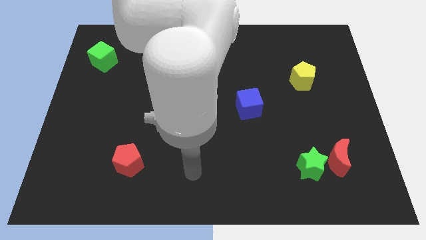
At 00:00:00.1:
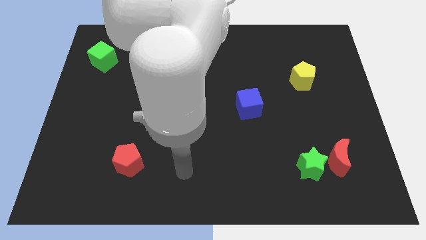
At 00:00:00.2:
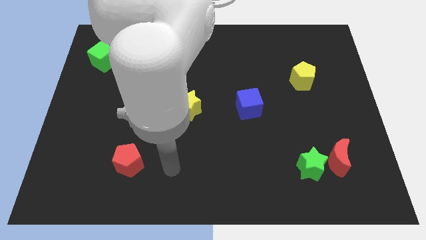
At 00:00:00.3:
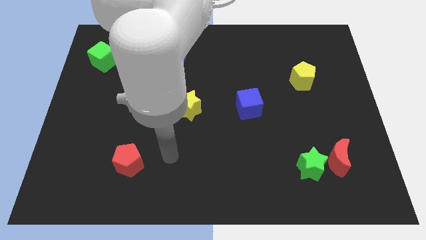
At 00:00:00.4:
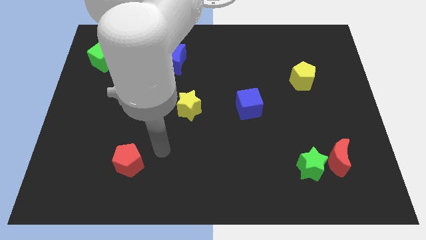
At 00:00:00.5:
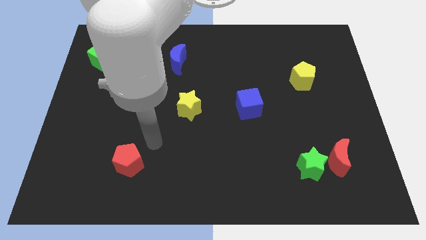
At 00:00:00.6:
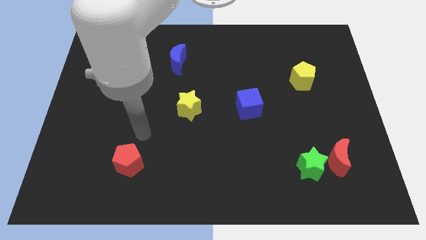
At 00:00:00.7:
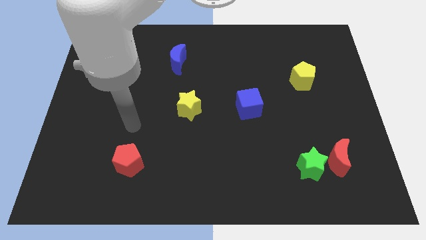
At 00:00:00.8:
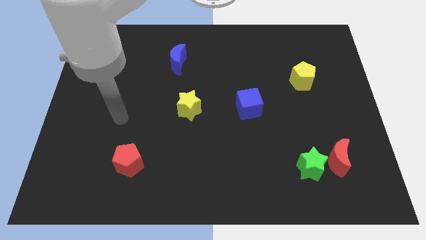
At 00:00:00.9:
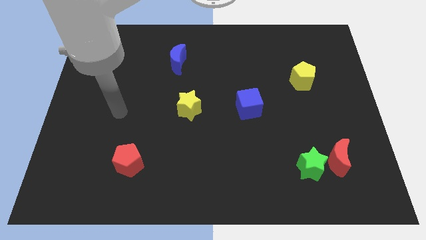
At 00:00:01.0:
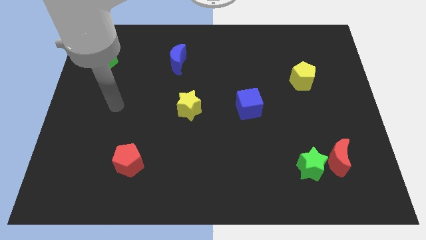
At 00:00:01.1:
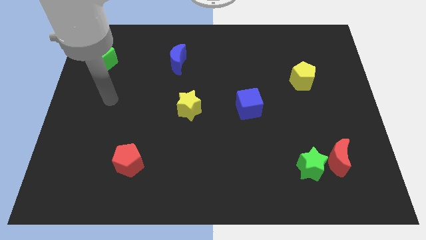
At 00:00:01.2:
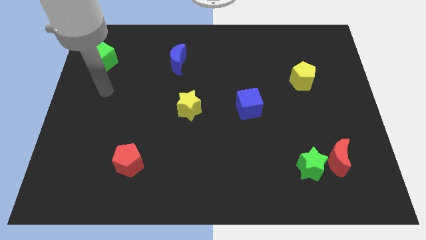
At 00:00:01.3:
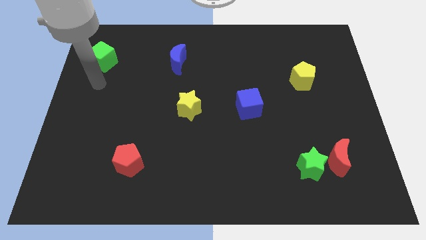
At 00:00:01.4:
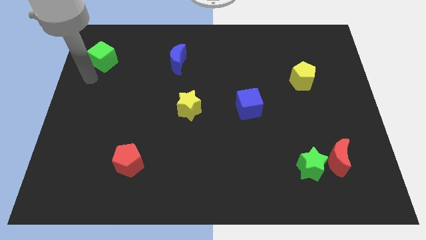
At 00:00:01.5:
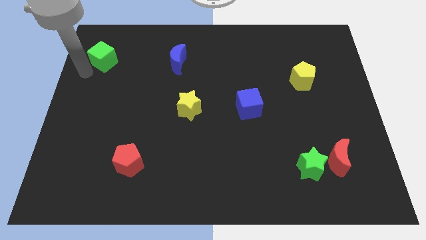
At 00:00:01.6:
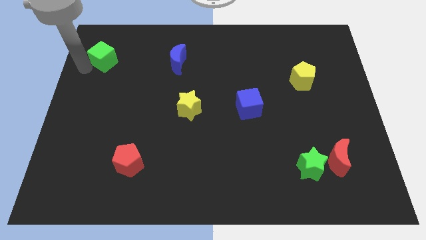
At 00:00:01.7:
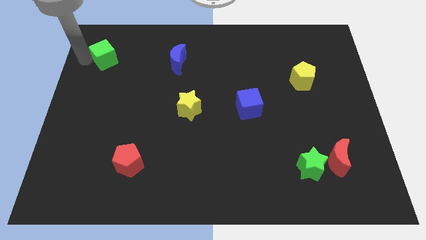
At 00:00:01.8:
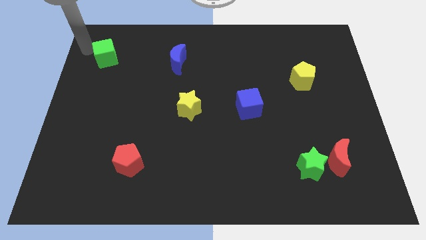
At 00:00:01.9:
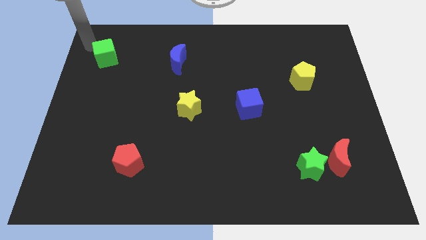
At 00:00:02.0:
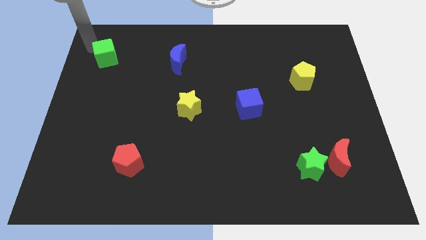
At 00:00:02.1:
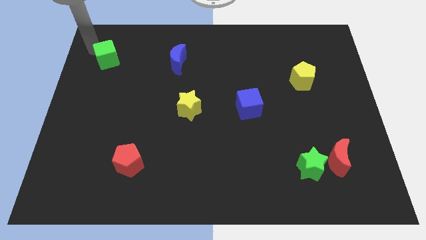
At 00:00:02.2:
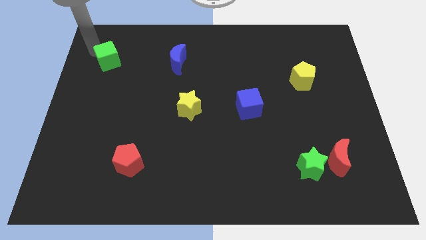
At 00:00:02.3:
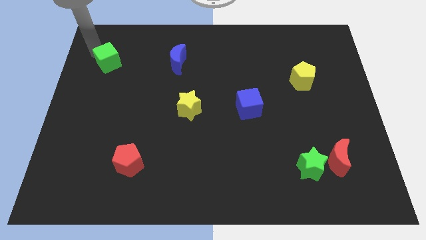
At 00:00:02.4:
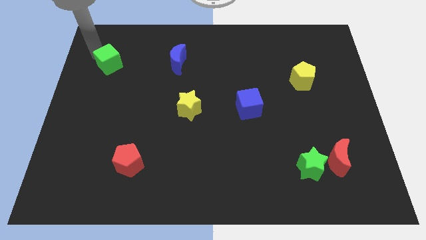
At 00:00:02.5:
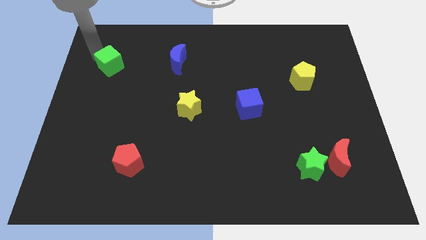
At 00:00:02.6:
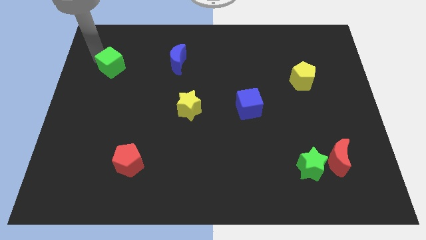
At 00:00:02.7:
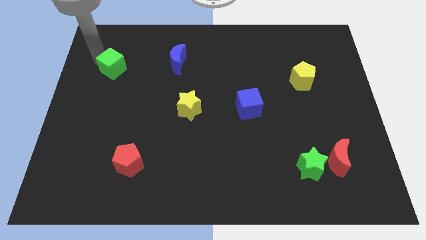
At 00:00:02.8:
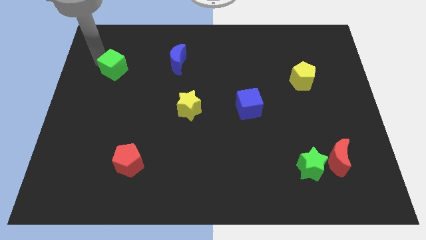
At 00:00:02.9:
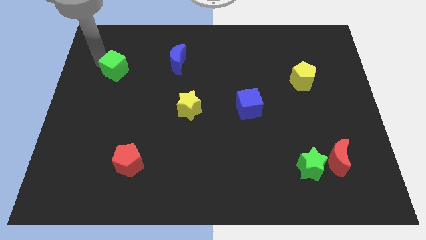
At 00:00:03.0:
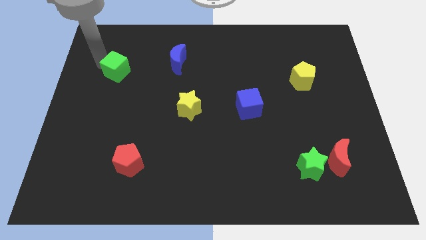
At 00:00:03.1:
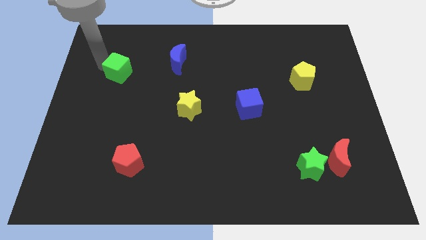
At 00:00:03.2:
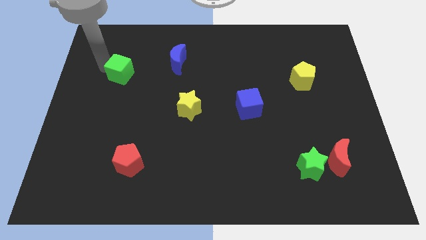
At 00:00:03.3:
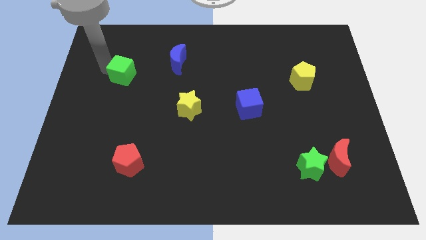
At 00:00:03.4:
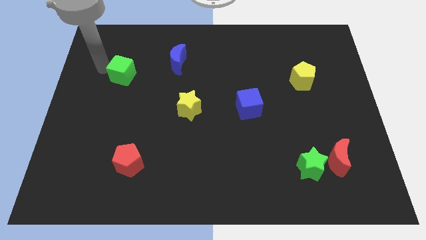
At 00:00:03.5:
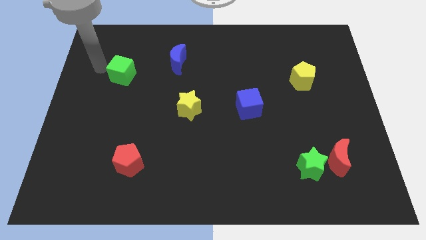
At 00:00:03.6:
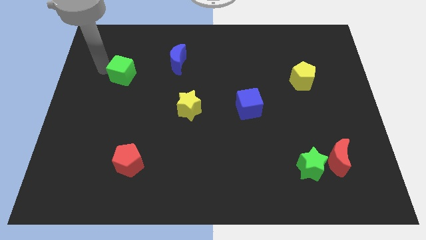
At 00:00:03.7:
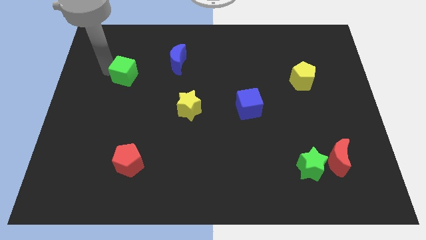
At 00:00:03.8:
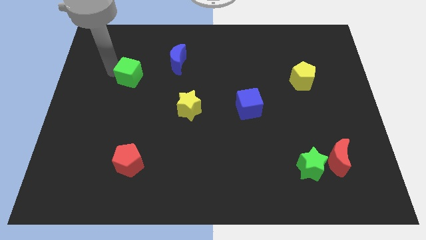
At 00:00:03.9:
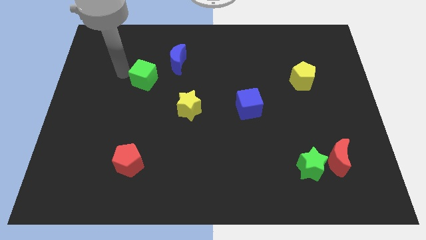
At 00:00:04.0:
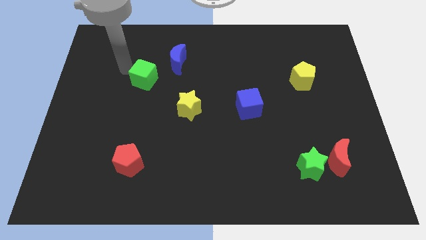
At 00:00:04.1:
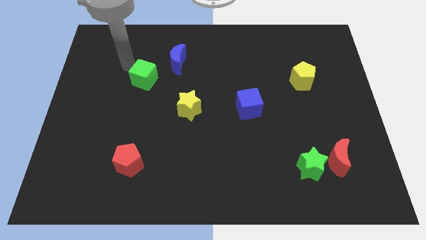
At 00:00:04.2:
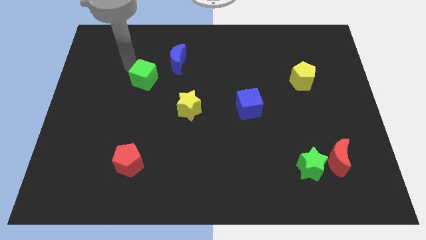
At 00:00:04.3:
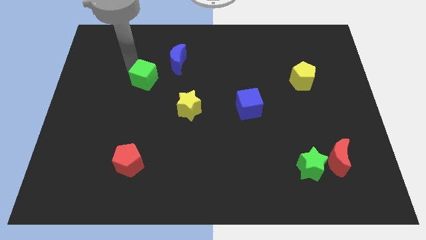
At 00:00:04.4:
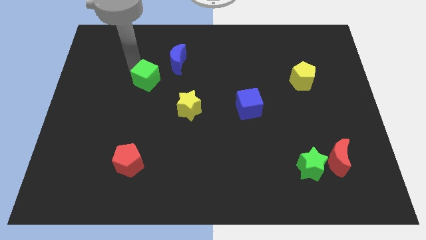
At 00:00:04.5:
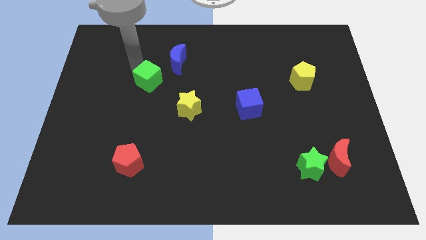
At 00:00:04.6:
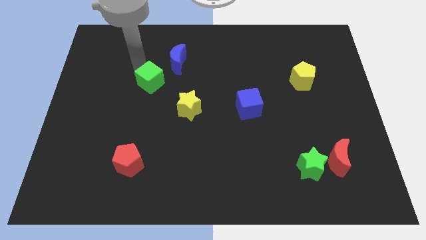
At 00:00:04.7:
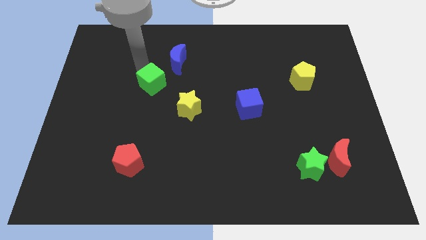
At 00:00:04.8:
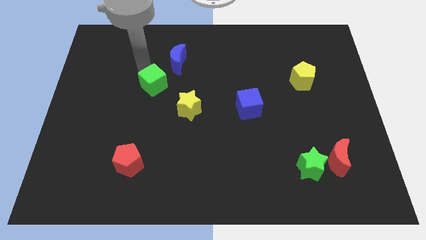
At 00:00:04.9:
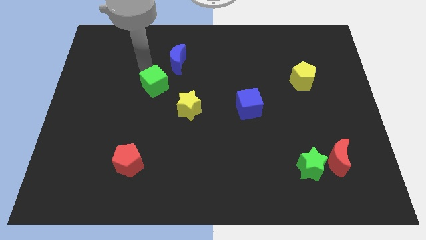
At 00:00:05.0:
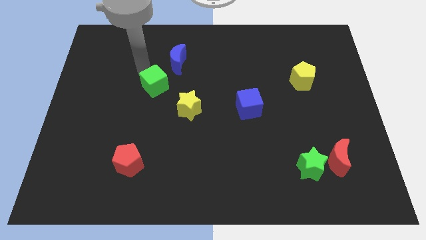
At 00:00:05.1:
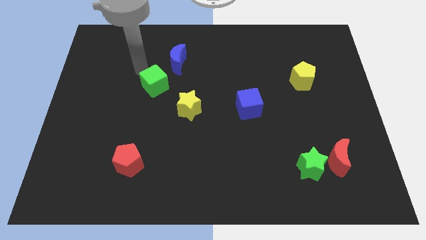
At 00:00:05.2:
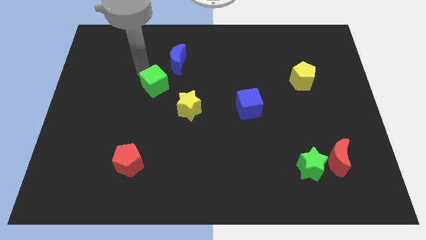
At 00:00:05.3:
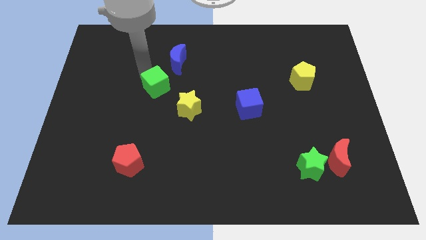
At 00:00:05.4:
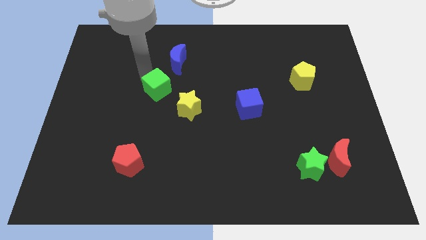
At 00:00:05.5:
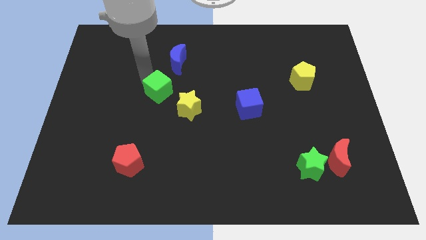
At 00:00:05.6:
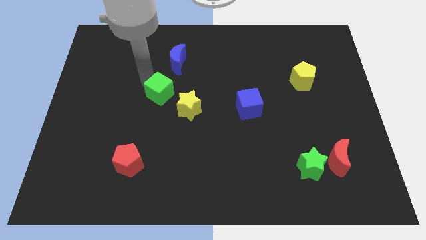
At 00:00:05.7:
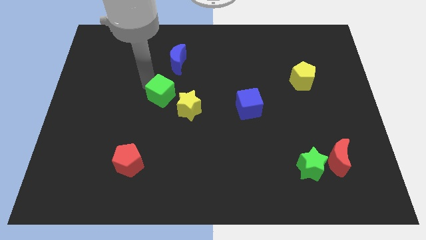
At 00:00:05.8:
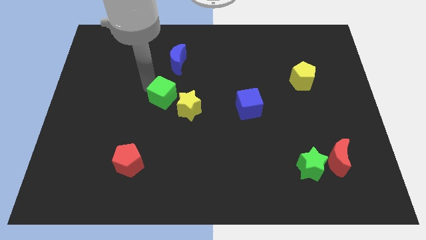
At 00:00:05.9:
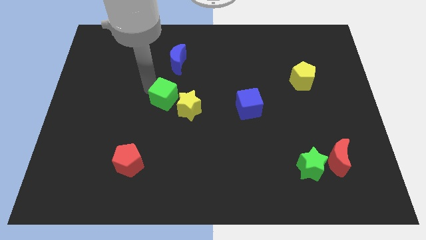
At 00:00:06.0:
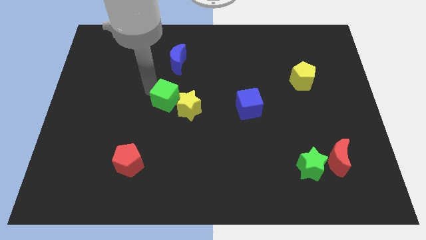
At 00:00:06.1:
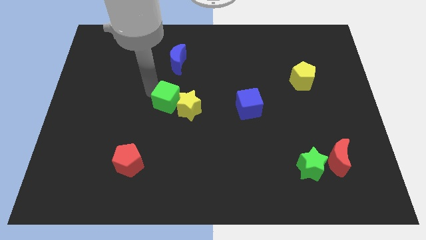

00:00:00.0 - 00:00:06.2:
put the green cube close to the yellow star
